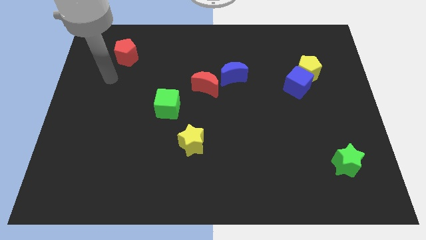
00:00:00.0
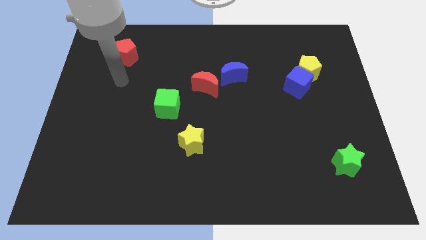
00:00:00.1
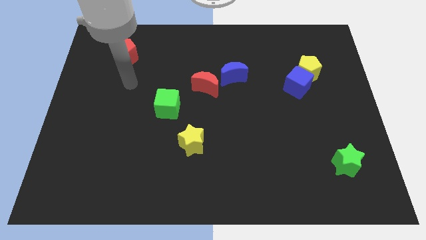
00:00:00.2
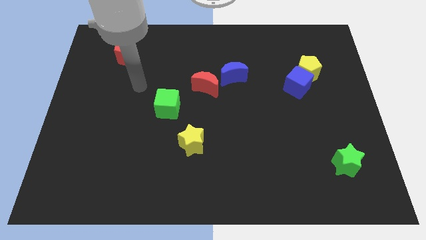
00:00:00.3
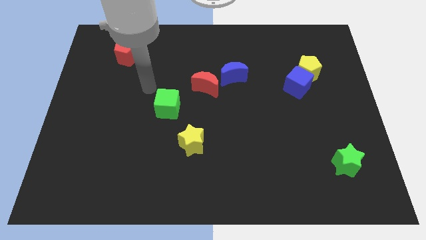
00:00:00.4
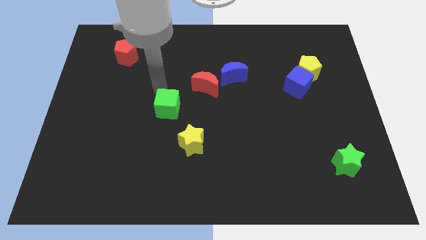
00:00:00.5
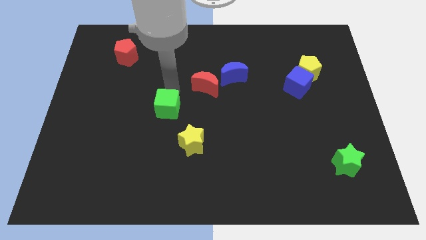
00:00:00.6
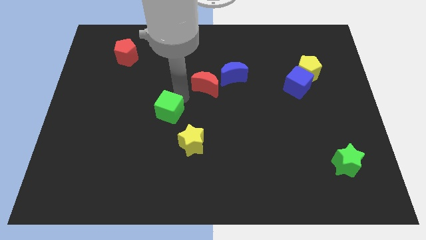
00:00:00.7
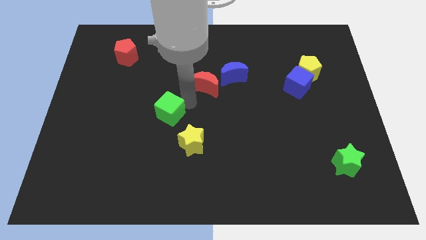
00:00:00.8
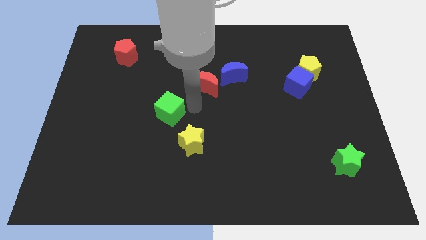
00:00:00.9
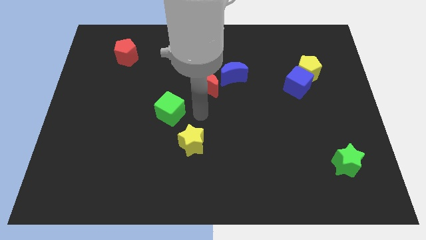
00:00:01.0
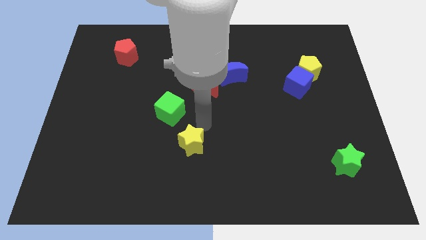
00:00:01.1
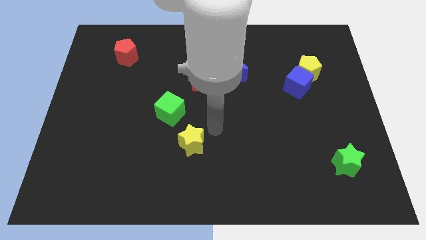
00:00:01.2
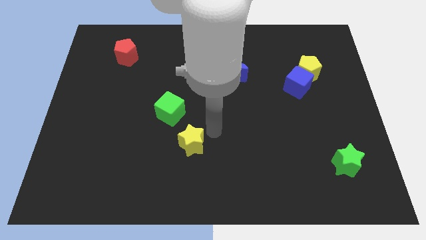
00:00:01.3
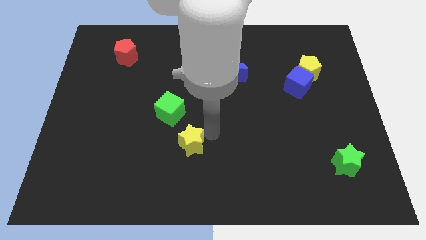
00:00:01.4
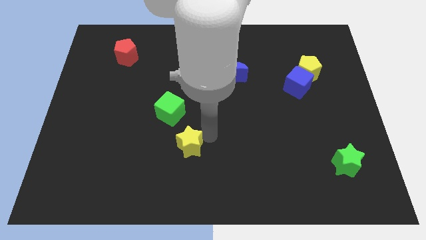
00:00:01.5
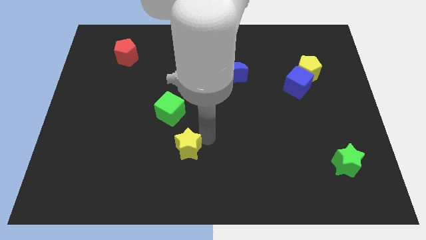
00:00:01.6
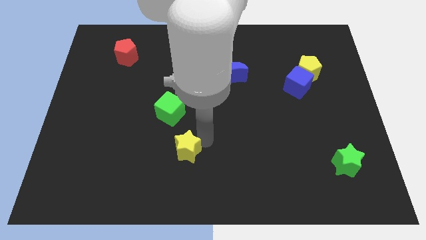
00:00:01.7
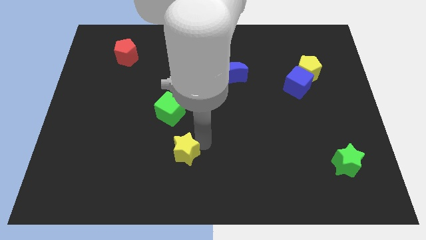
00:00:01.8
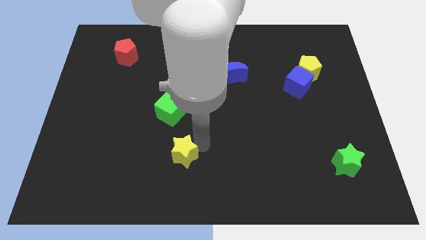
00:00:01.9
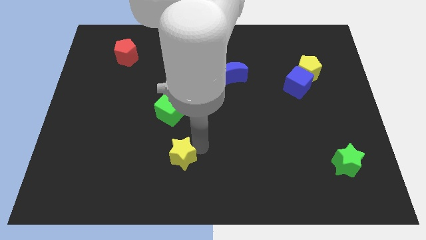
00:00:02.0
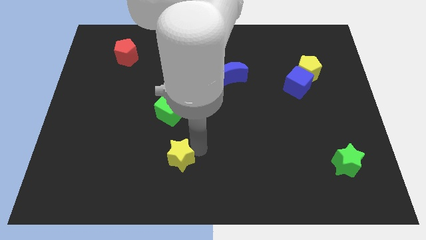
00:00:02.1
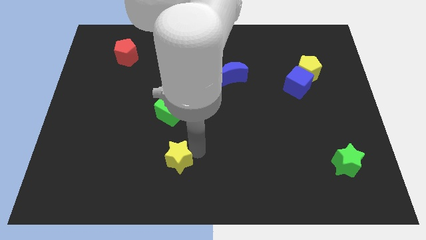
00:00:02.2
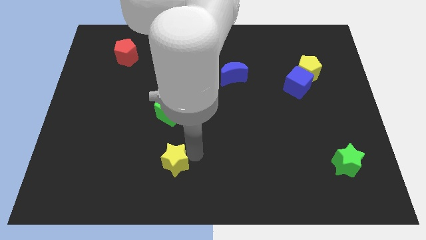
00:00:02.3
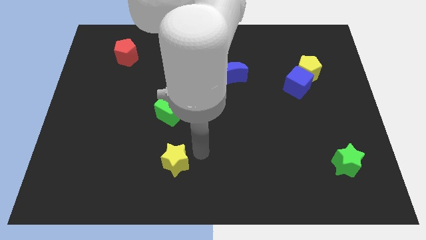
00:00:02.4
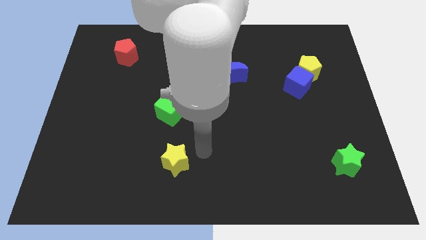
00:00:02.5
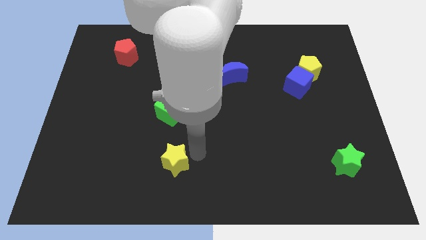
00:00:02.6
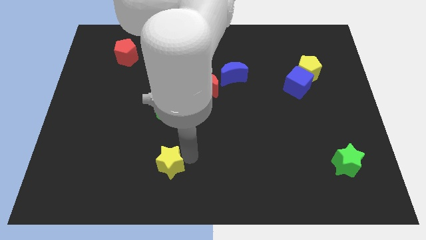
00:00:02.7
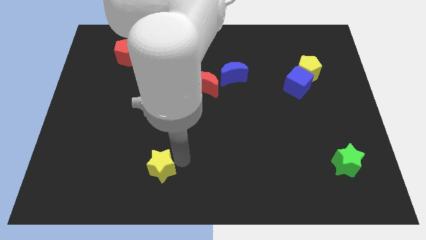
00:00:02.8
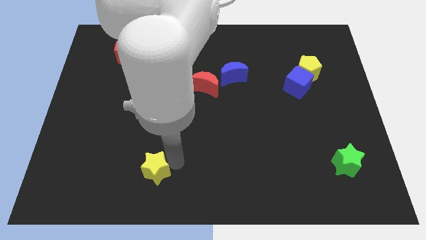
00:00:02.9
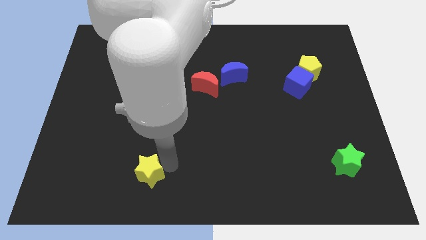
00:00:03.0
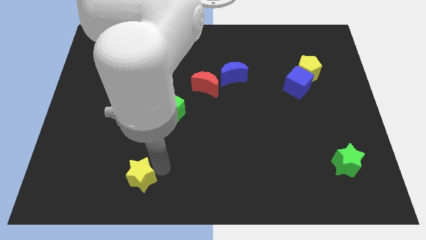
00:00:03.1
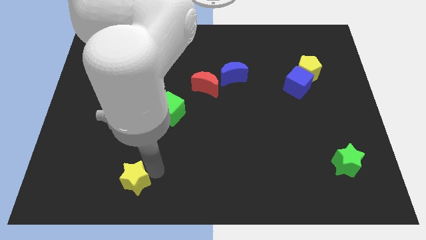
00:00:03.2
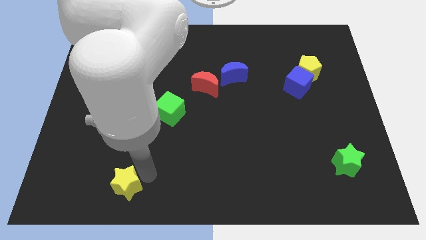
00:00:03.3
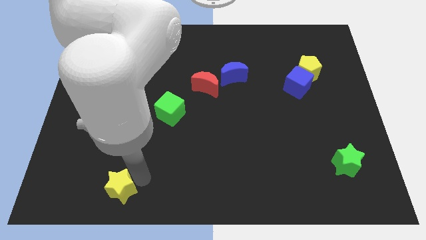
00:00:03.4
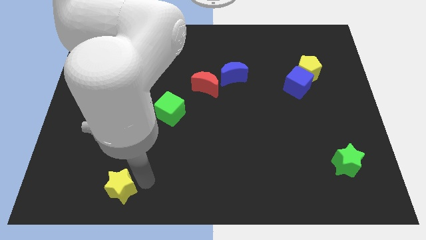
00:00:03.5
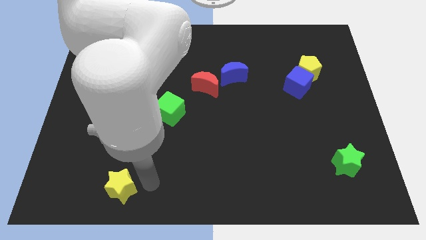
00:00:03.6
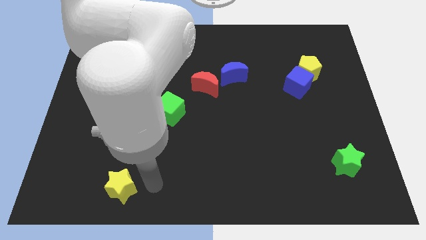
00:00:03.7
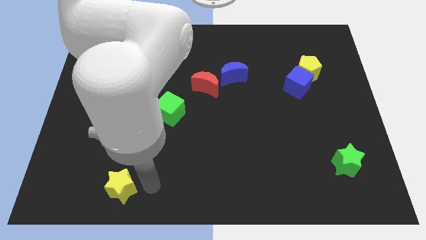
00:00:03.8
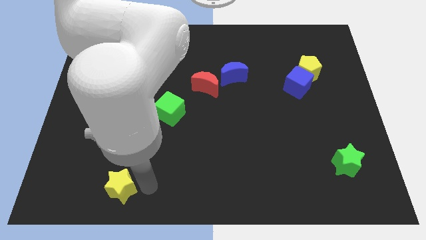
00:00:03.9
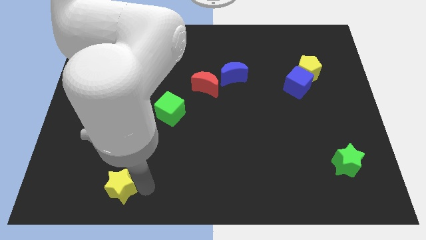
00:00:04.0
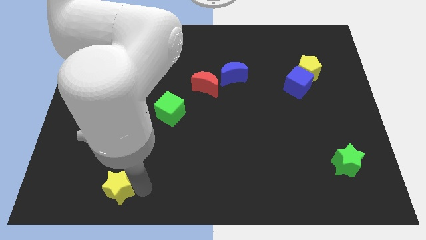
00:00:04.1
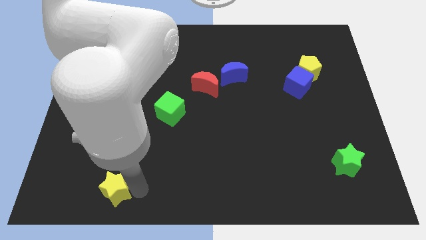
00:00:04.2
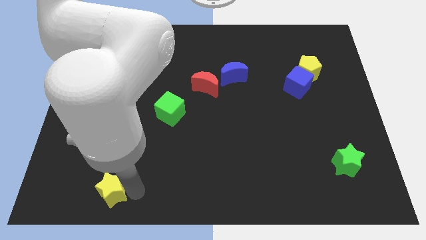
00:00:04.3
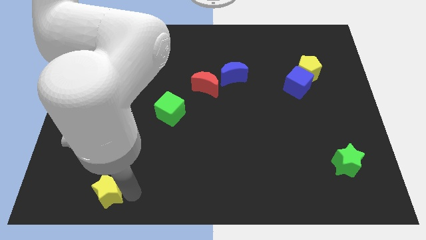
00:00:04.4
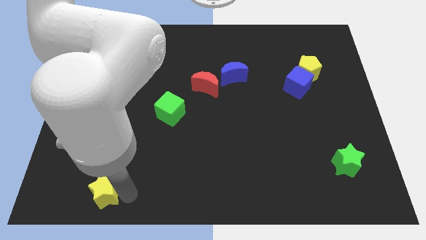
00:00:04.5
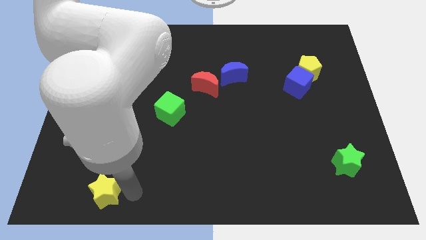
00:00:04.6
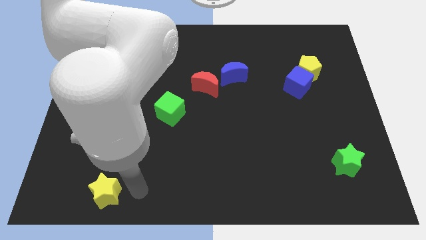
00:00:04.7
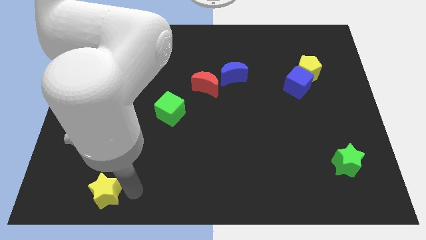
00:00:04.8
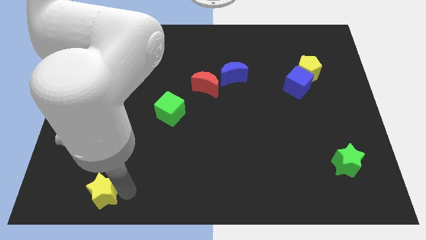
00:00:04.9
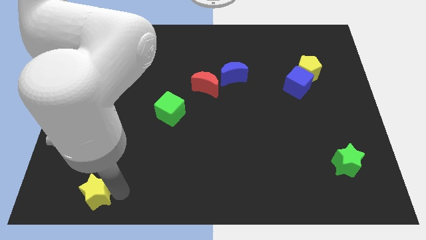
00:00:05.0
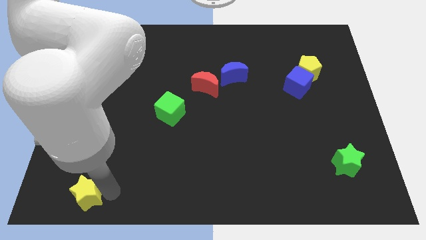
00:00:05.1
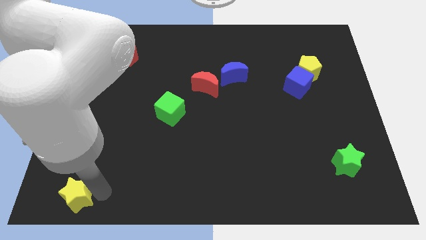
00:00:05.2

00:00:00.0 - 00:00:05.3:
put the yellow star to the lower left corner
